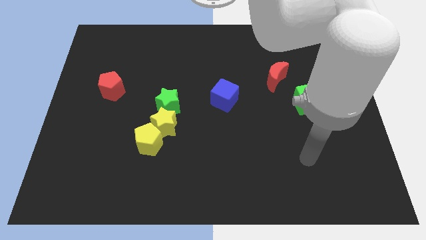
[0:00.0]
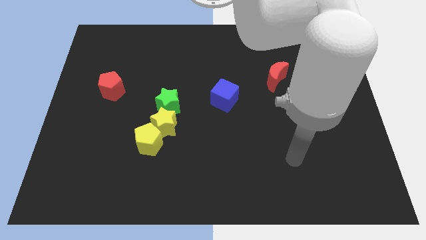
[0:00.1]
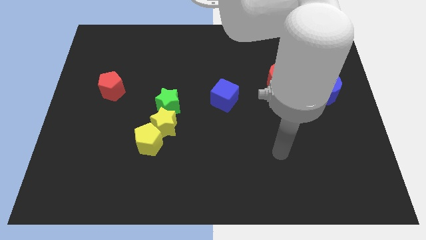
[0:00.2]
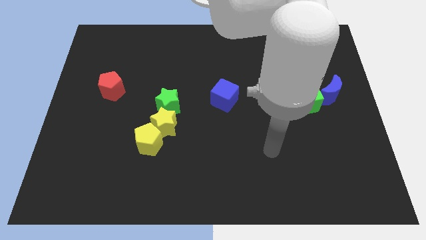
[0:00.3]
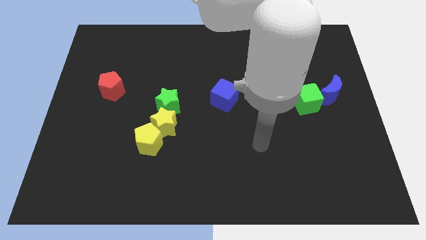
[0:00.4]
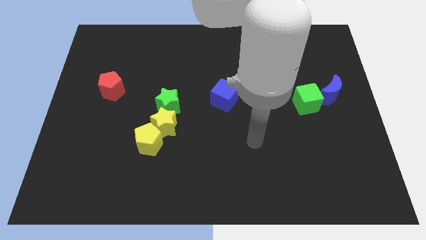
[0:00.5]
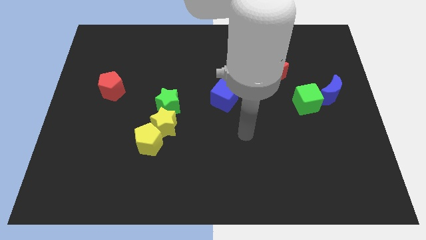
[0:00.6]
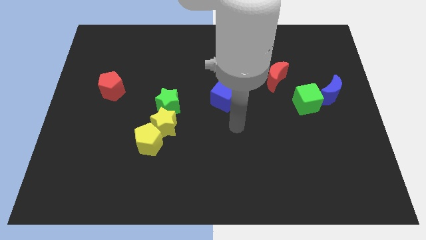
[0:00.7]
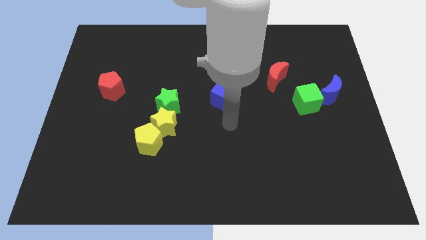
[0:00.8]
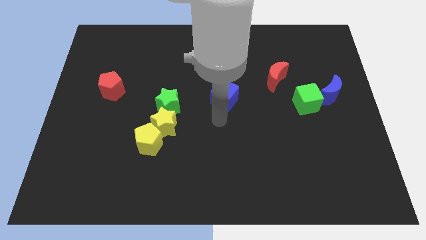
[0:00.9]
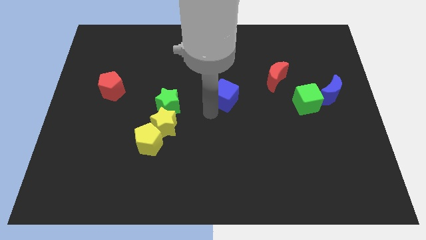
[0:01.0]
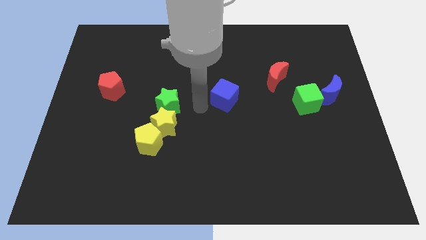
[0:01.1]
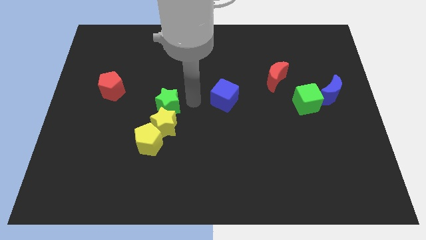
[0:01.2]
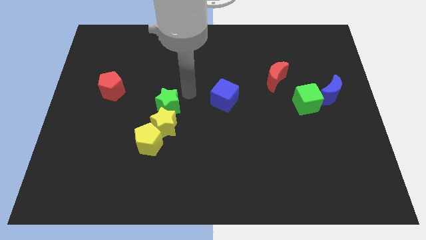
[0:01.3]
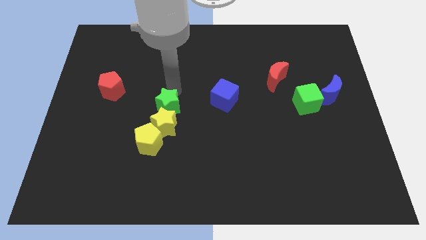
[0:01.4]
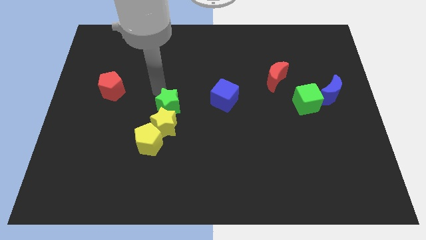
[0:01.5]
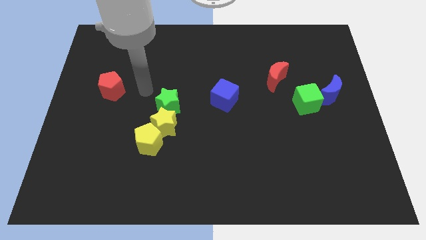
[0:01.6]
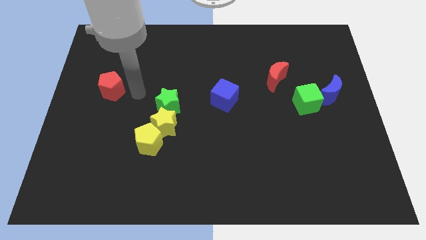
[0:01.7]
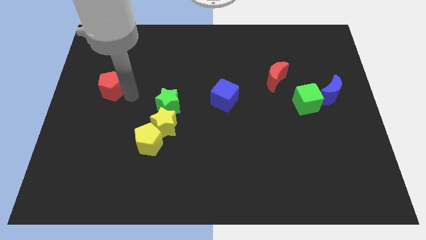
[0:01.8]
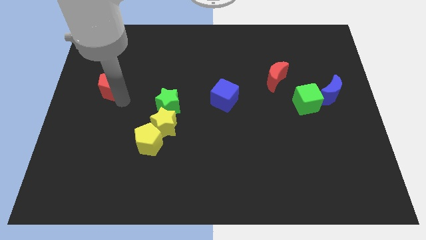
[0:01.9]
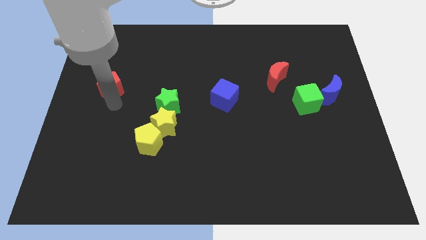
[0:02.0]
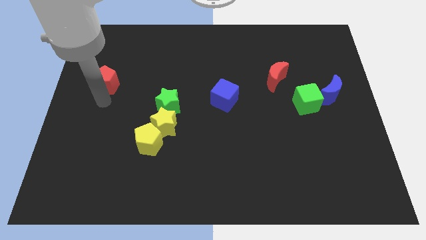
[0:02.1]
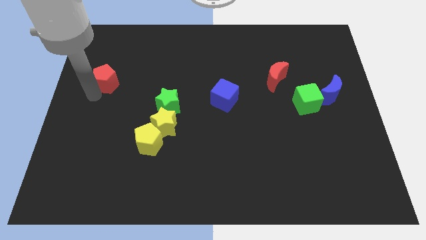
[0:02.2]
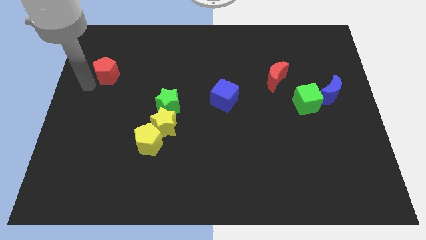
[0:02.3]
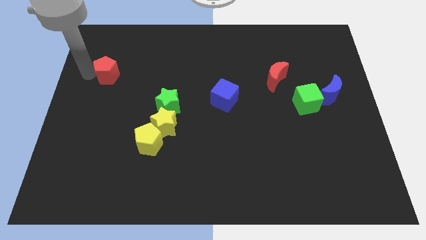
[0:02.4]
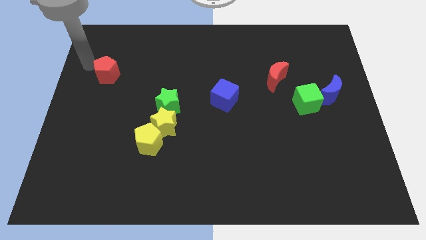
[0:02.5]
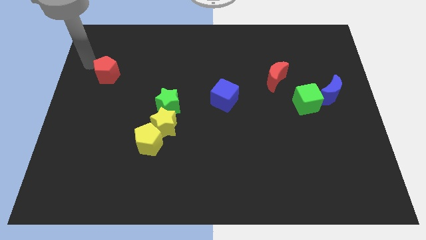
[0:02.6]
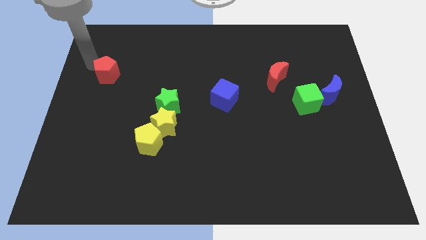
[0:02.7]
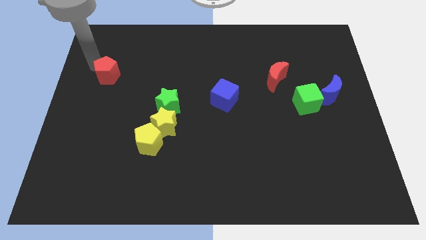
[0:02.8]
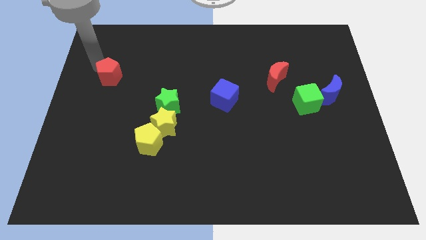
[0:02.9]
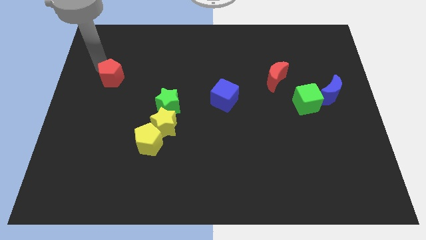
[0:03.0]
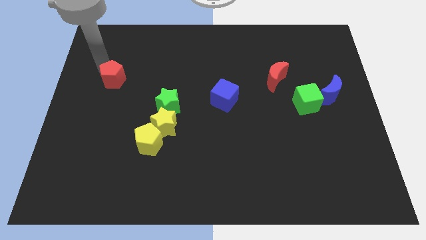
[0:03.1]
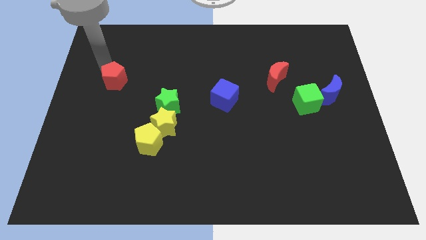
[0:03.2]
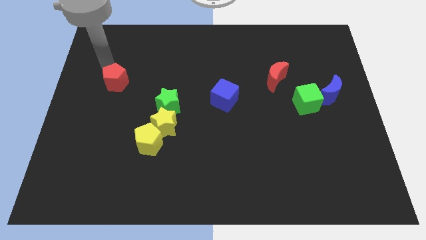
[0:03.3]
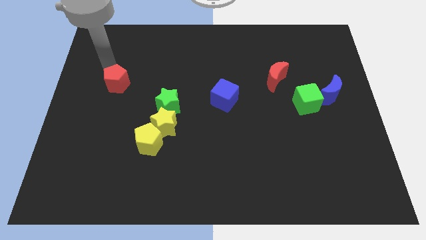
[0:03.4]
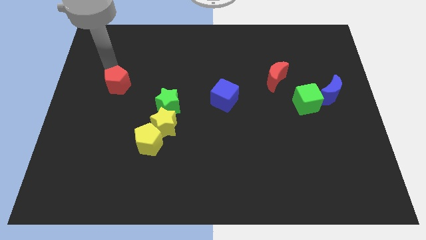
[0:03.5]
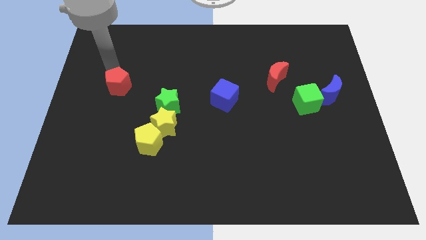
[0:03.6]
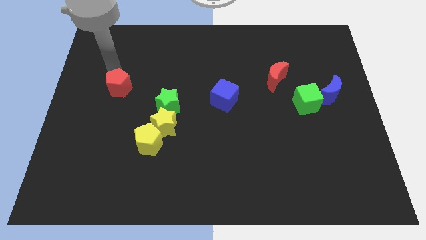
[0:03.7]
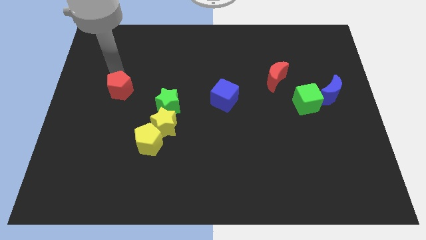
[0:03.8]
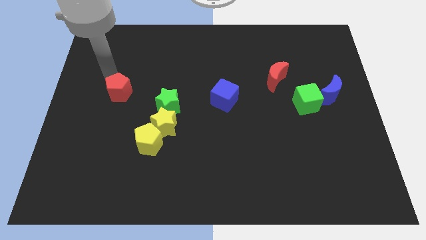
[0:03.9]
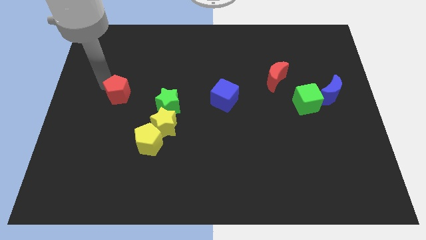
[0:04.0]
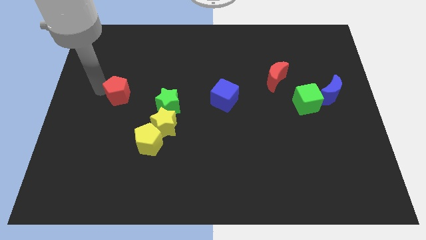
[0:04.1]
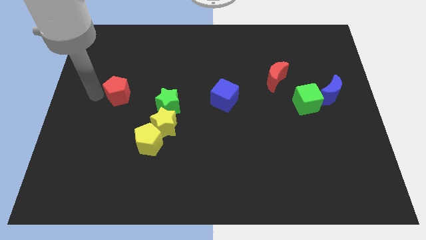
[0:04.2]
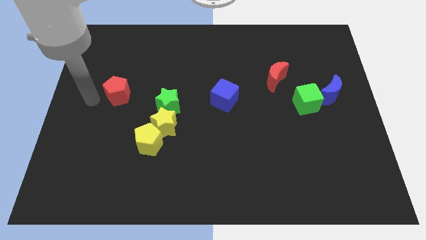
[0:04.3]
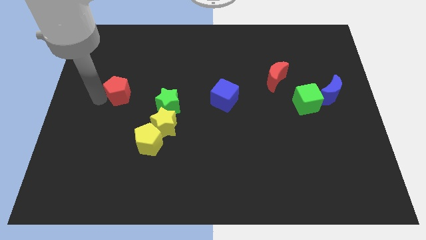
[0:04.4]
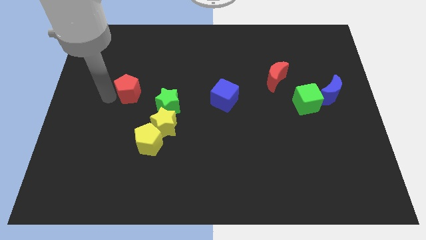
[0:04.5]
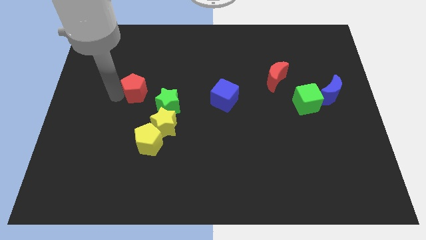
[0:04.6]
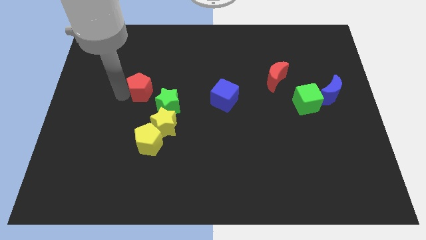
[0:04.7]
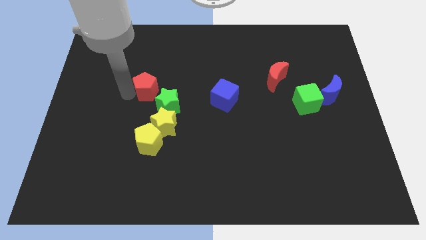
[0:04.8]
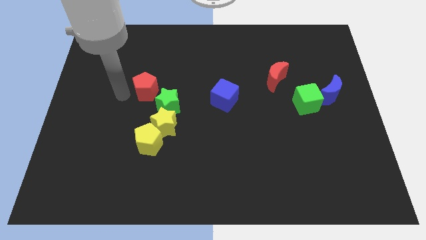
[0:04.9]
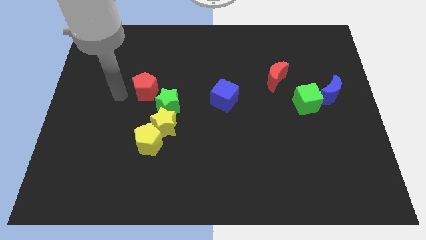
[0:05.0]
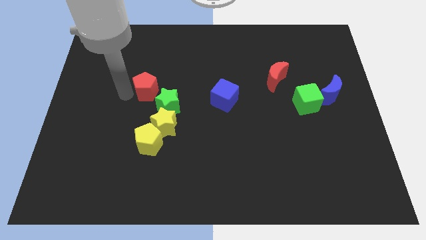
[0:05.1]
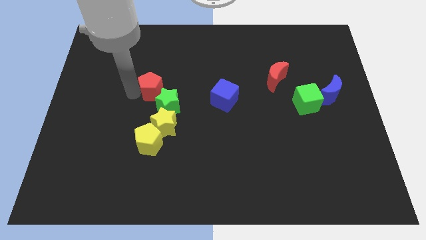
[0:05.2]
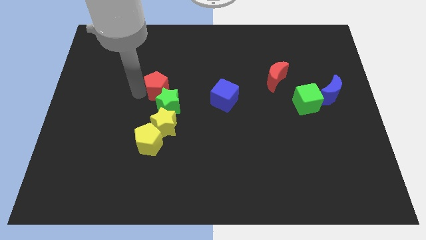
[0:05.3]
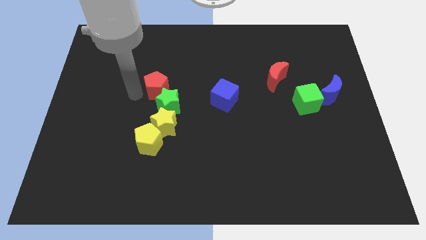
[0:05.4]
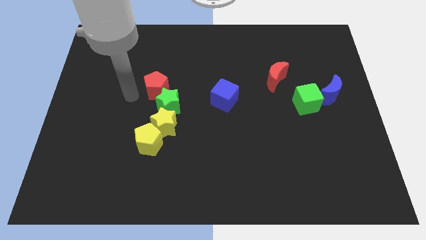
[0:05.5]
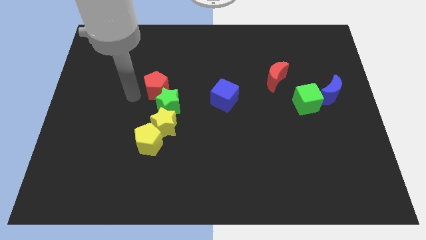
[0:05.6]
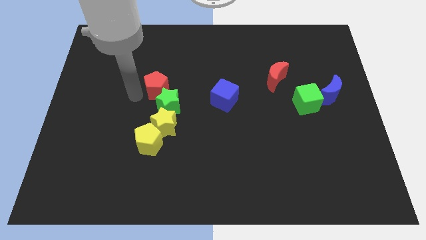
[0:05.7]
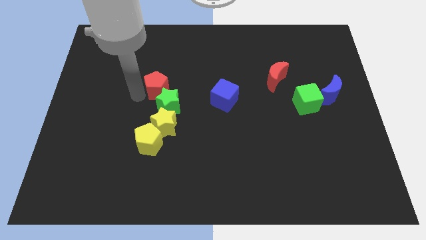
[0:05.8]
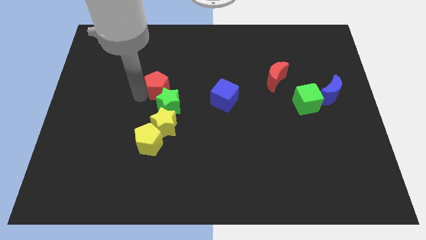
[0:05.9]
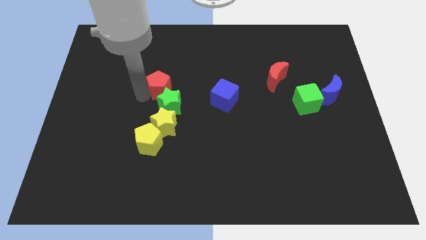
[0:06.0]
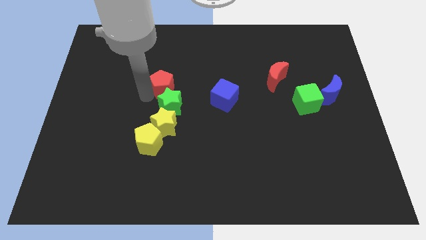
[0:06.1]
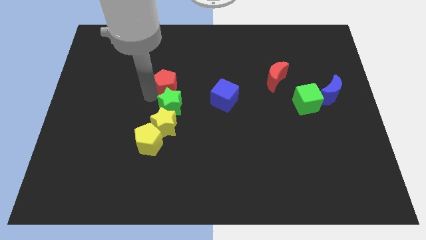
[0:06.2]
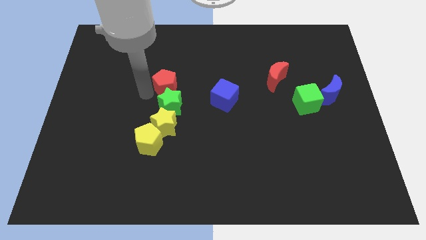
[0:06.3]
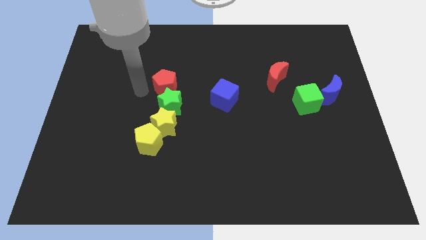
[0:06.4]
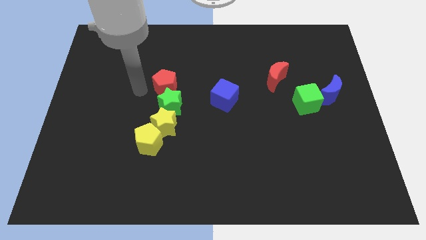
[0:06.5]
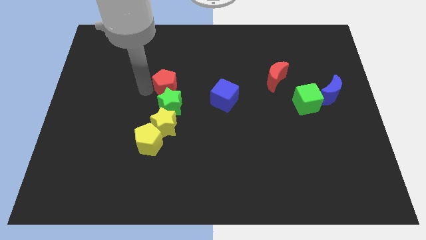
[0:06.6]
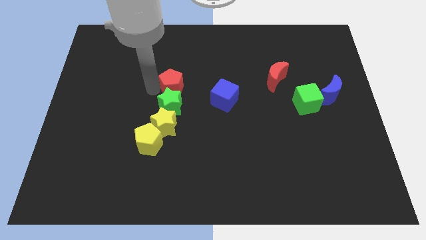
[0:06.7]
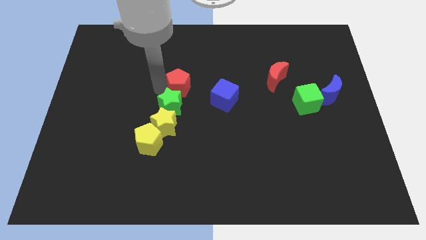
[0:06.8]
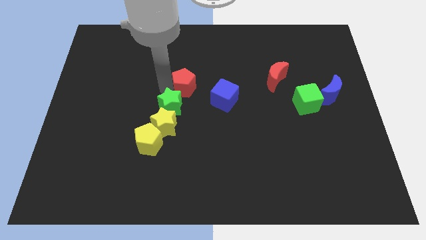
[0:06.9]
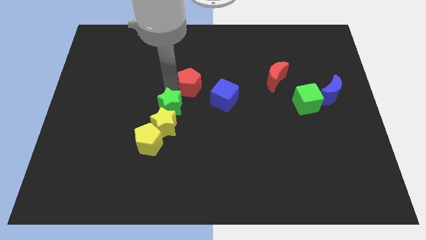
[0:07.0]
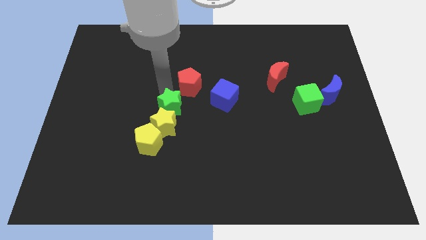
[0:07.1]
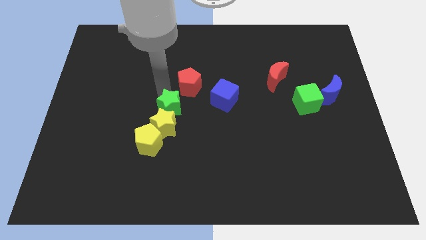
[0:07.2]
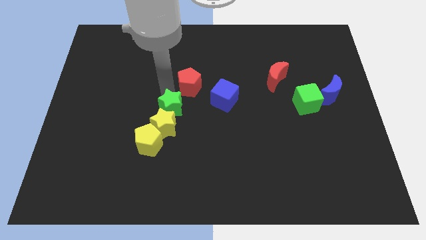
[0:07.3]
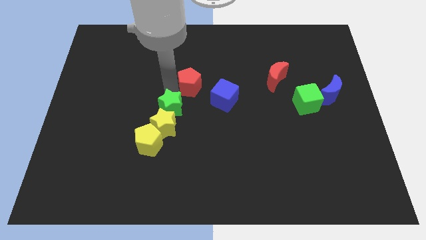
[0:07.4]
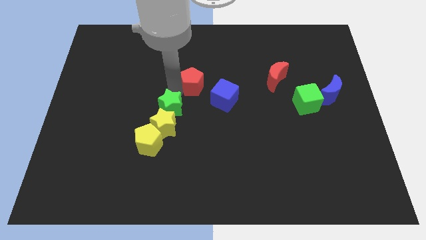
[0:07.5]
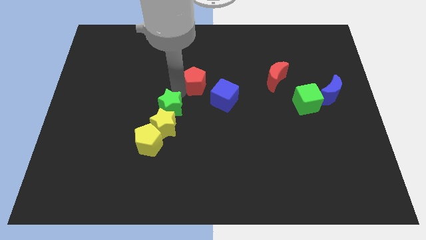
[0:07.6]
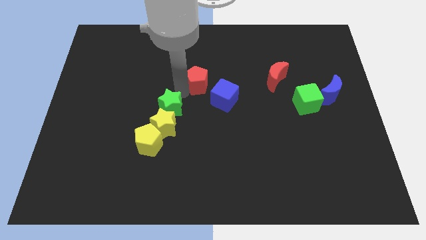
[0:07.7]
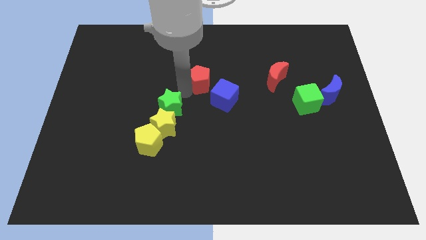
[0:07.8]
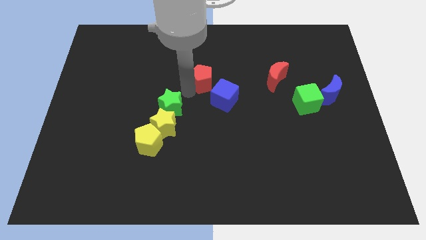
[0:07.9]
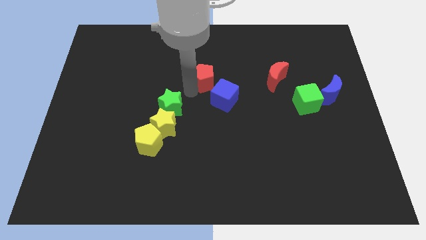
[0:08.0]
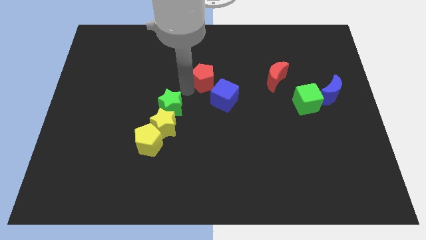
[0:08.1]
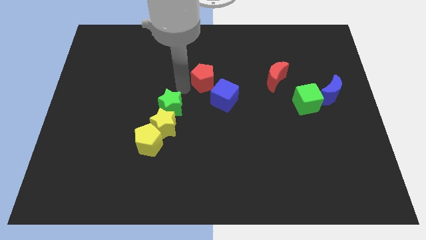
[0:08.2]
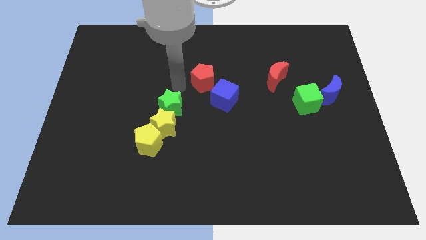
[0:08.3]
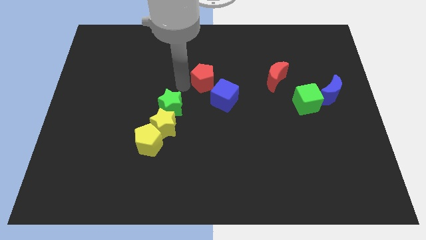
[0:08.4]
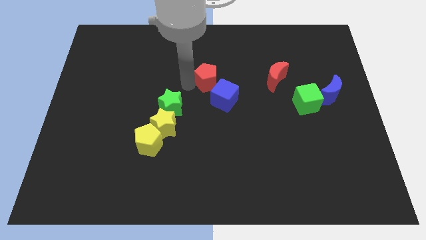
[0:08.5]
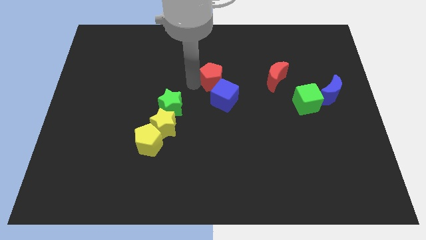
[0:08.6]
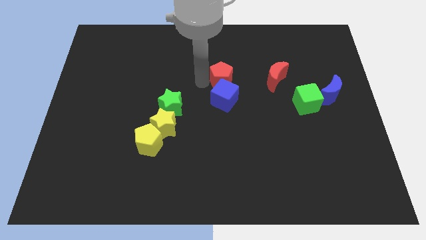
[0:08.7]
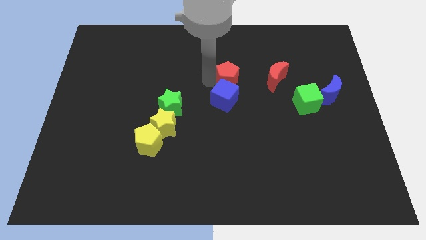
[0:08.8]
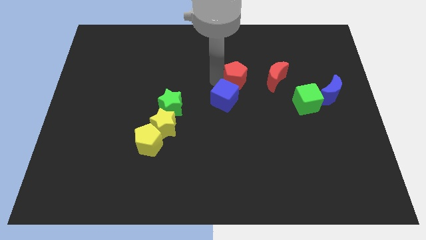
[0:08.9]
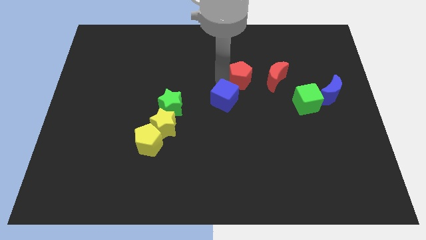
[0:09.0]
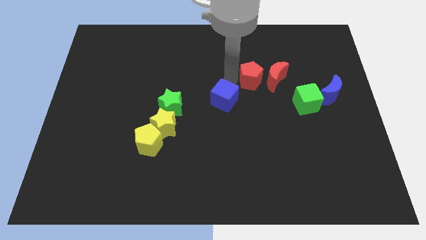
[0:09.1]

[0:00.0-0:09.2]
put the red pentagon towards the red moon
